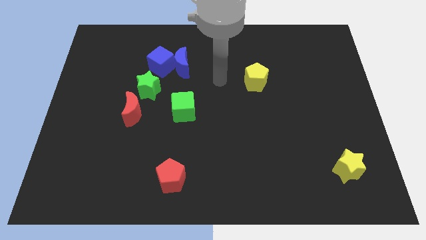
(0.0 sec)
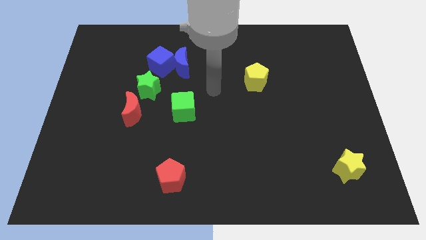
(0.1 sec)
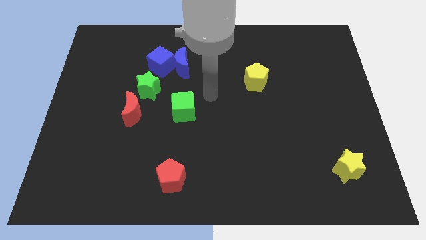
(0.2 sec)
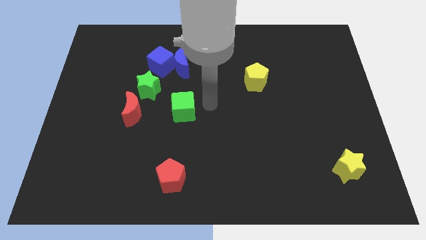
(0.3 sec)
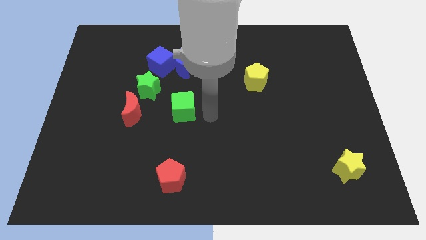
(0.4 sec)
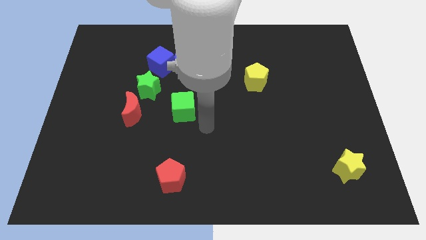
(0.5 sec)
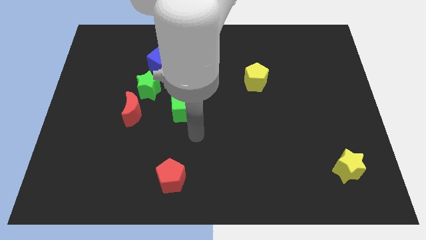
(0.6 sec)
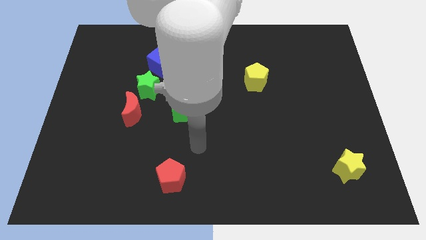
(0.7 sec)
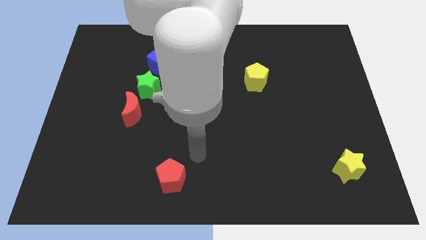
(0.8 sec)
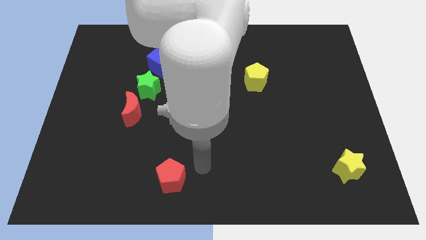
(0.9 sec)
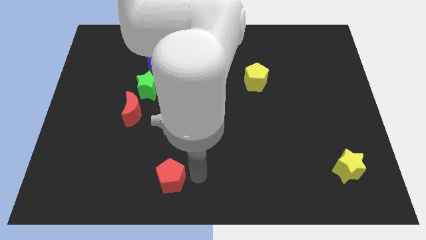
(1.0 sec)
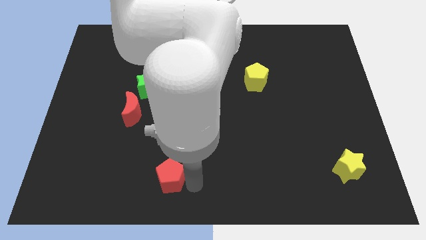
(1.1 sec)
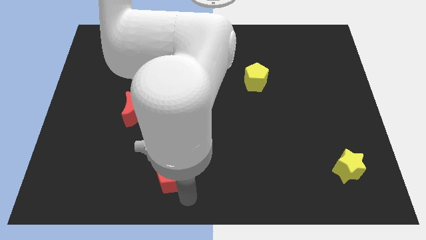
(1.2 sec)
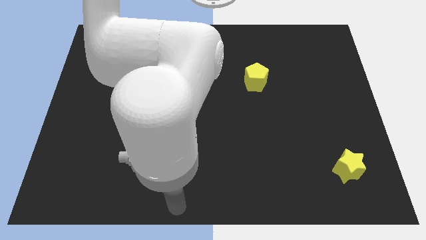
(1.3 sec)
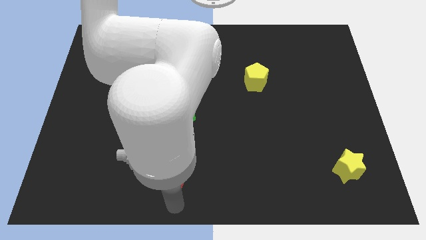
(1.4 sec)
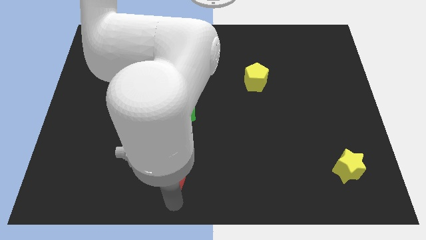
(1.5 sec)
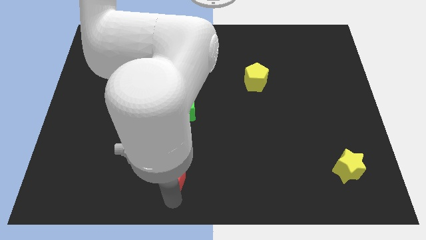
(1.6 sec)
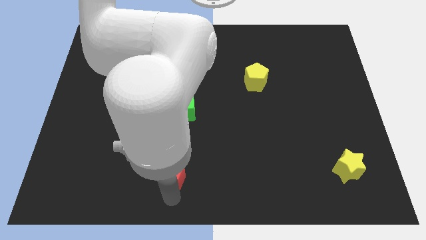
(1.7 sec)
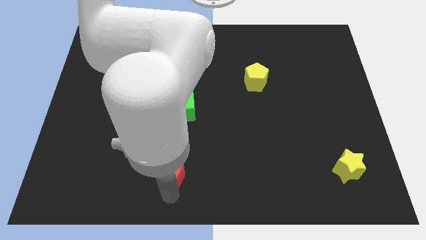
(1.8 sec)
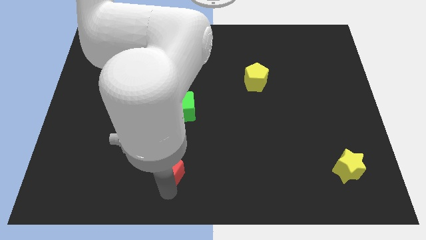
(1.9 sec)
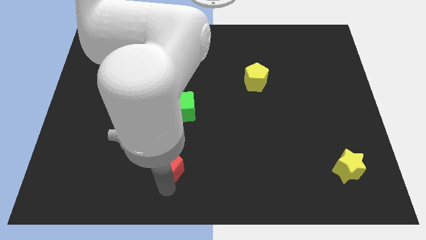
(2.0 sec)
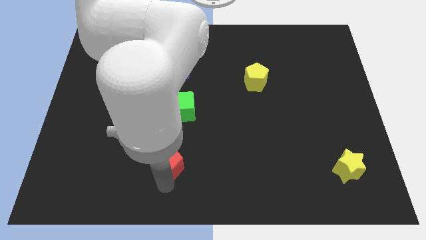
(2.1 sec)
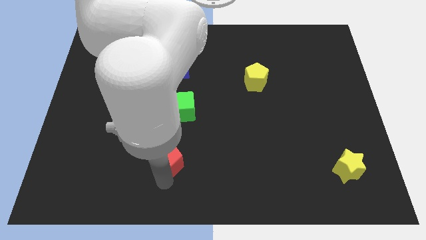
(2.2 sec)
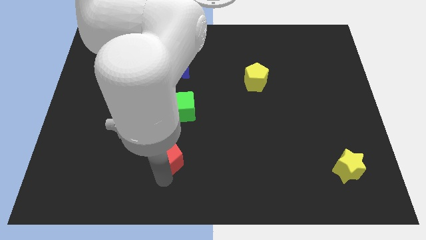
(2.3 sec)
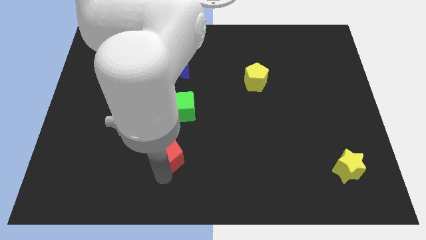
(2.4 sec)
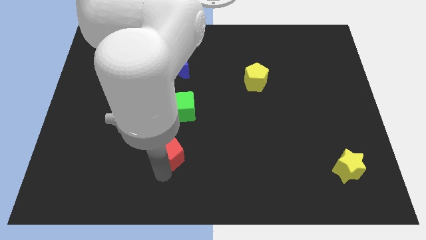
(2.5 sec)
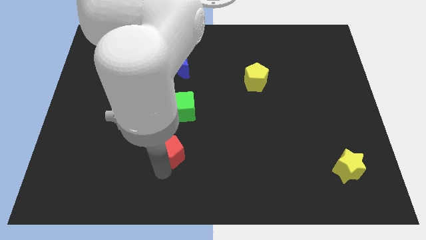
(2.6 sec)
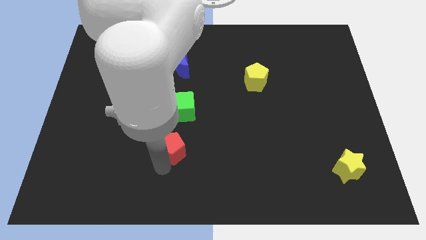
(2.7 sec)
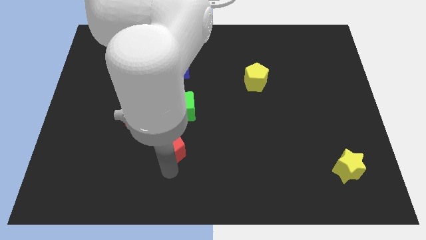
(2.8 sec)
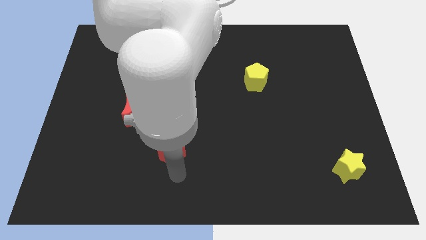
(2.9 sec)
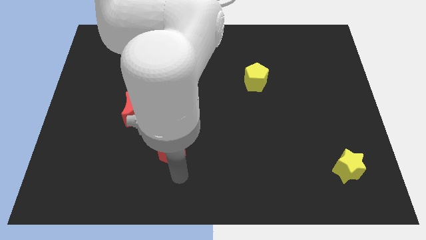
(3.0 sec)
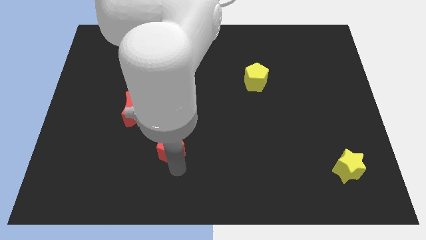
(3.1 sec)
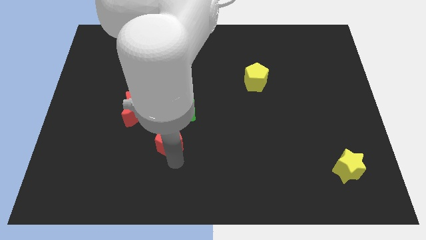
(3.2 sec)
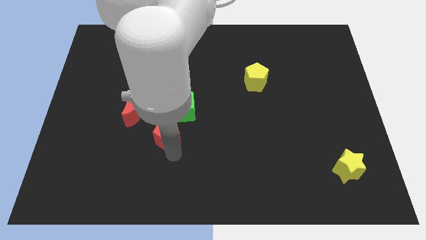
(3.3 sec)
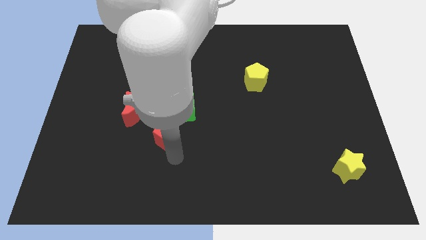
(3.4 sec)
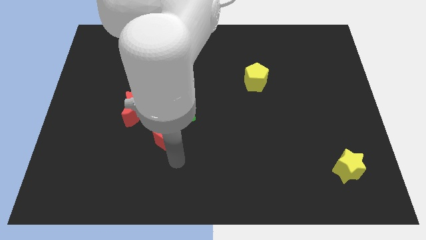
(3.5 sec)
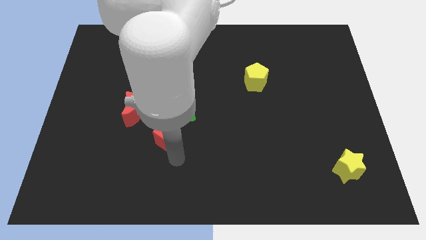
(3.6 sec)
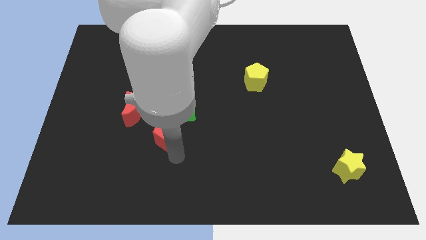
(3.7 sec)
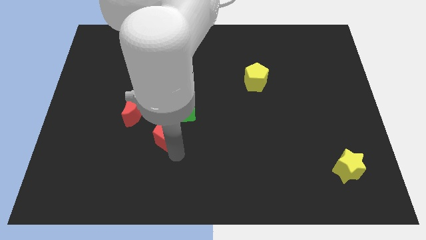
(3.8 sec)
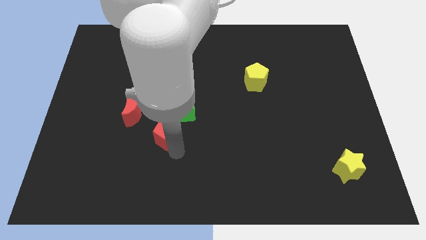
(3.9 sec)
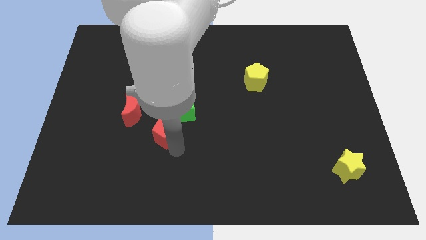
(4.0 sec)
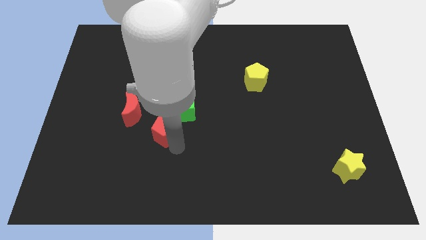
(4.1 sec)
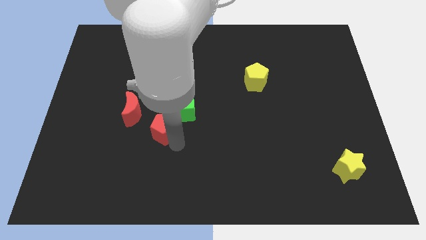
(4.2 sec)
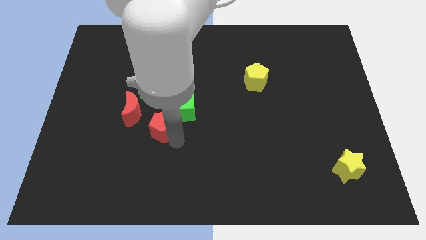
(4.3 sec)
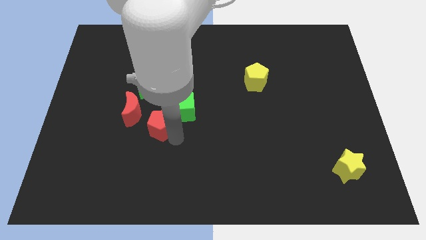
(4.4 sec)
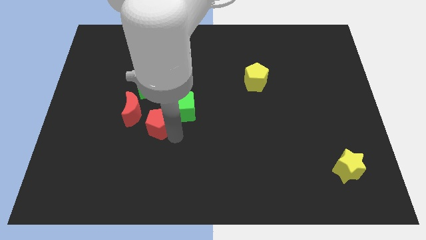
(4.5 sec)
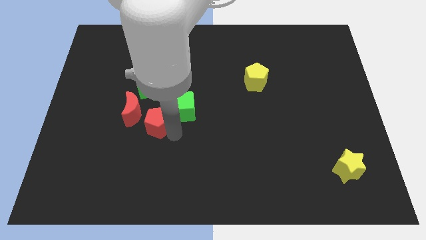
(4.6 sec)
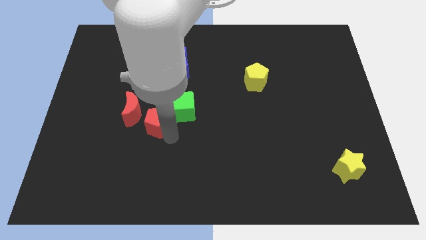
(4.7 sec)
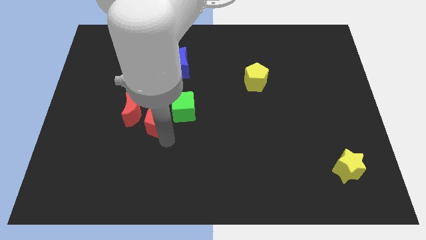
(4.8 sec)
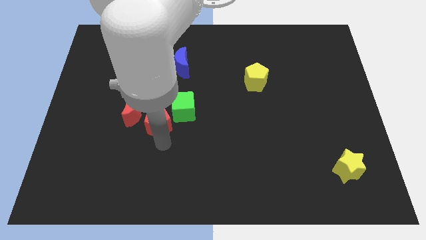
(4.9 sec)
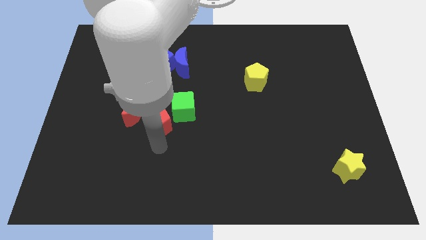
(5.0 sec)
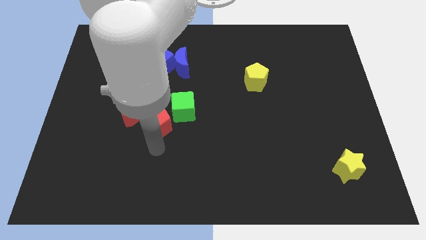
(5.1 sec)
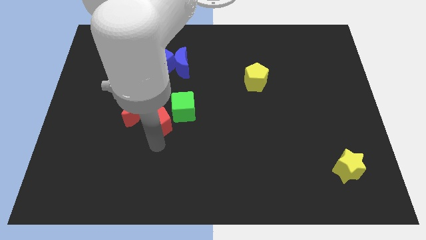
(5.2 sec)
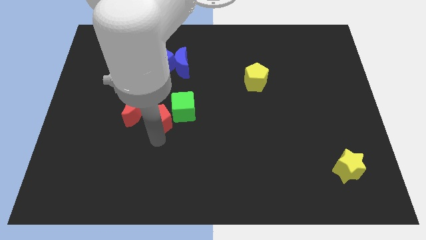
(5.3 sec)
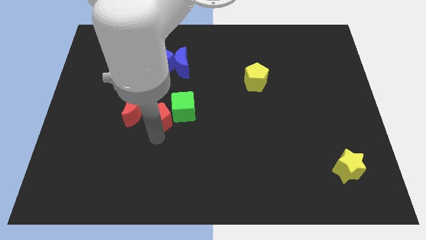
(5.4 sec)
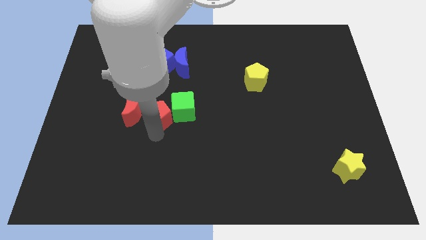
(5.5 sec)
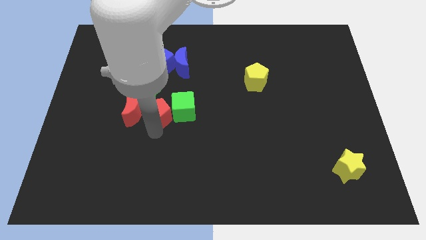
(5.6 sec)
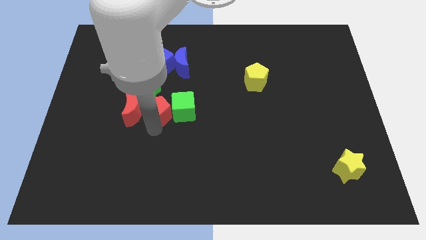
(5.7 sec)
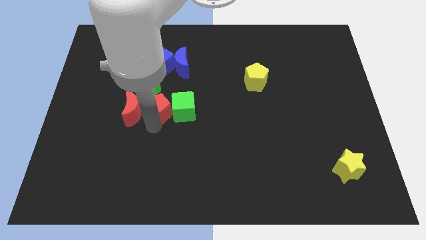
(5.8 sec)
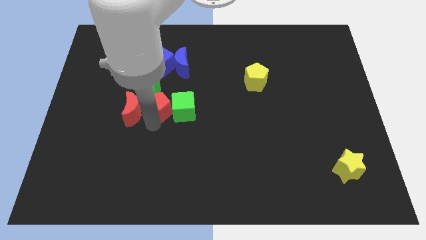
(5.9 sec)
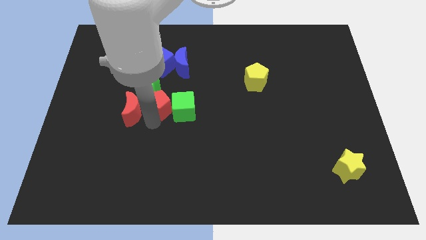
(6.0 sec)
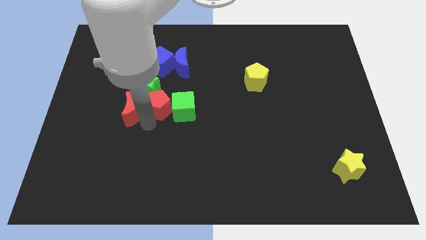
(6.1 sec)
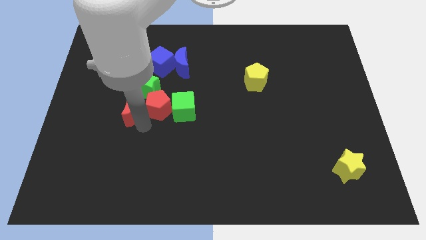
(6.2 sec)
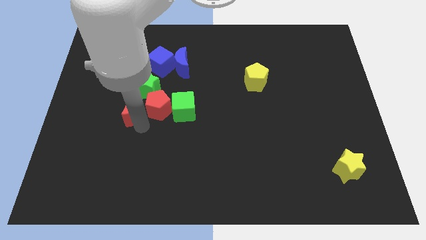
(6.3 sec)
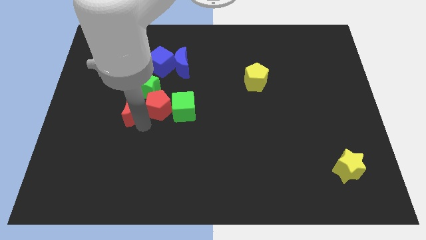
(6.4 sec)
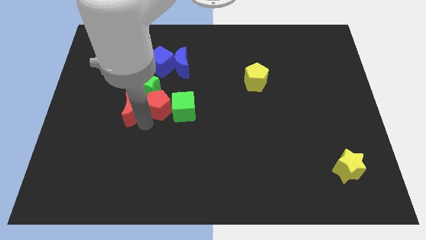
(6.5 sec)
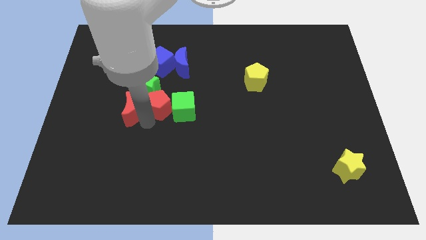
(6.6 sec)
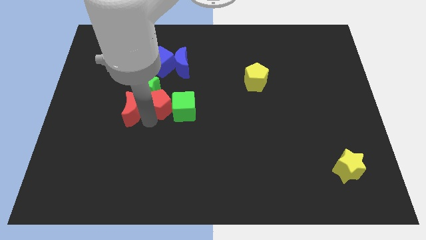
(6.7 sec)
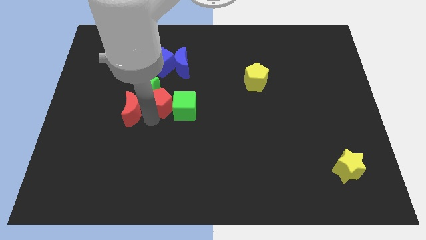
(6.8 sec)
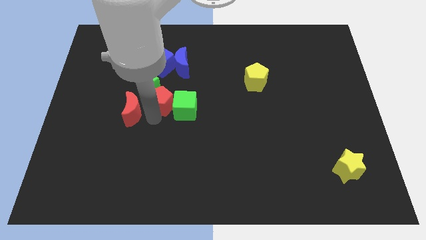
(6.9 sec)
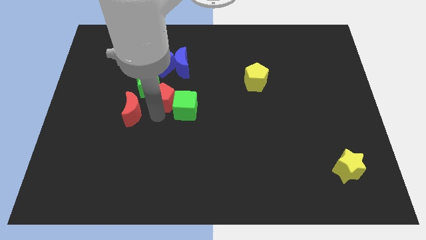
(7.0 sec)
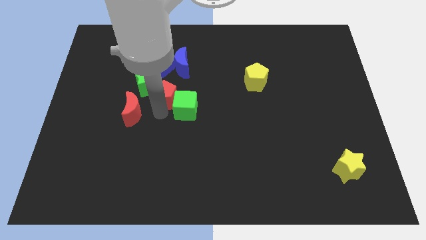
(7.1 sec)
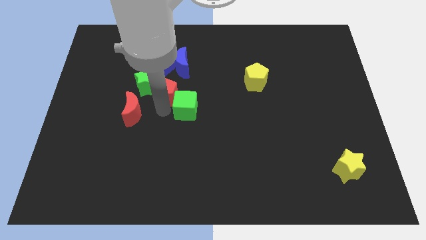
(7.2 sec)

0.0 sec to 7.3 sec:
move the red pentagon to the top side of the green cube

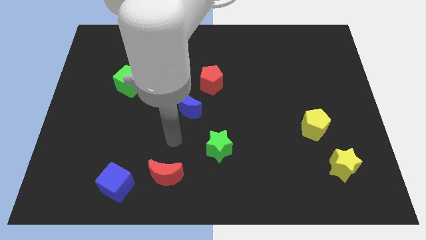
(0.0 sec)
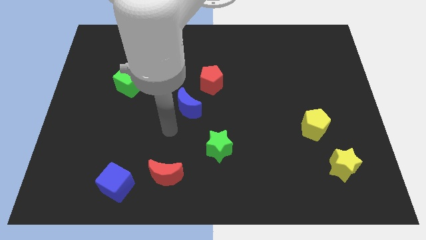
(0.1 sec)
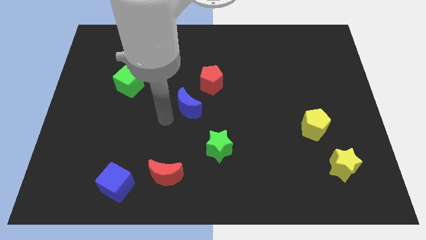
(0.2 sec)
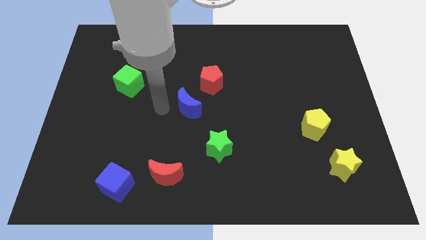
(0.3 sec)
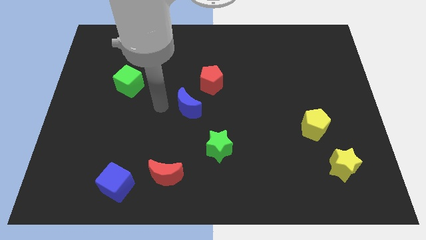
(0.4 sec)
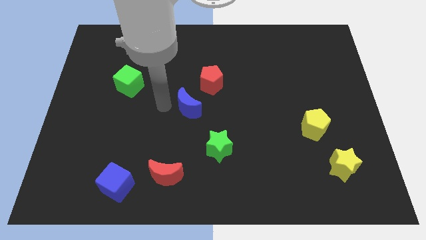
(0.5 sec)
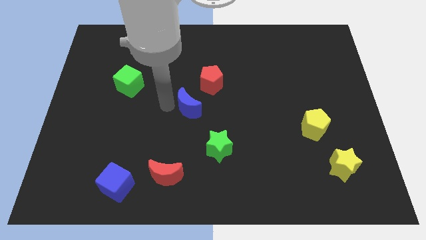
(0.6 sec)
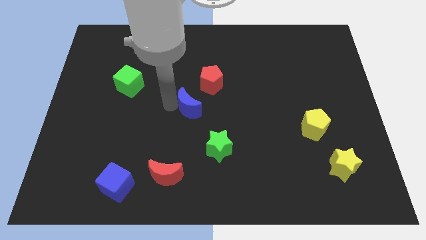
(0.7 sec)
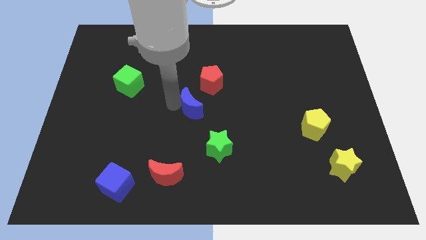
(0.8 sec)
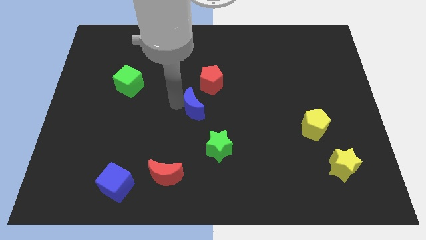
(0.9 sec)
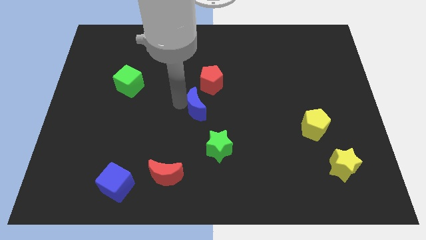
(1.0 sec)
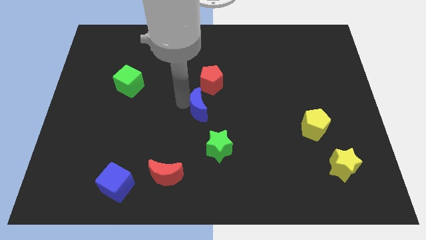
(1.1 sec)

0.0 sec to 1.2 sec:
put the blue moon to the top side of the green star
